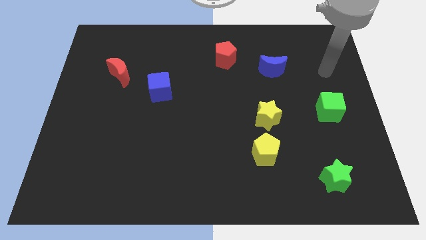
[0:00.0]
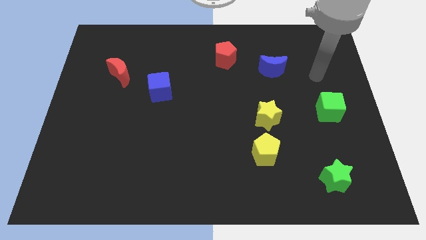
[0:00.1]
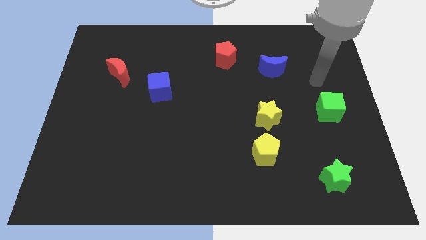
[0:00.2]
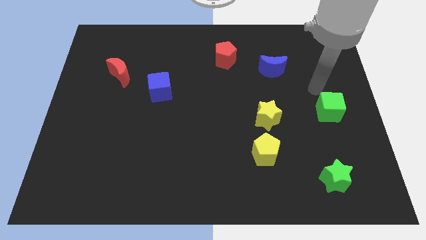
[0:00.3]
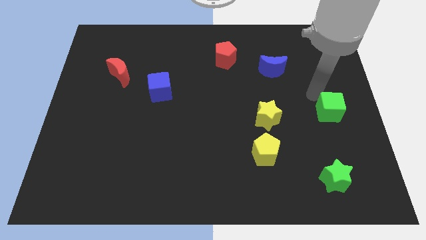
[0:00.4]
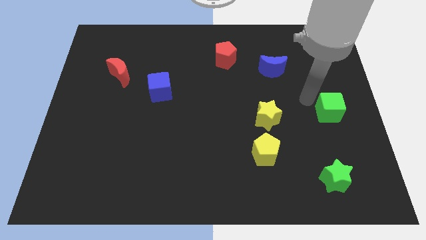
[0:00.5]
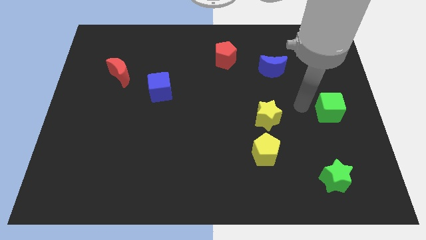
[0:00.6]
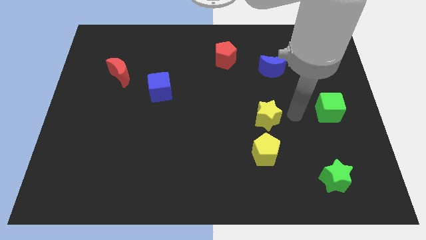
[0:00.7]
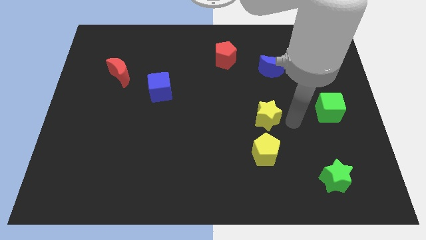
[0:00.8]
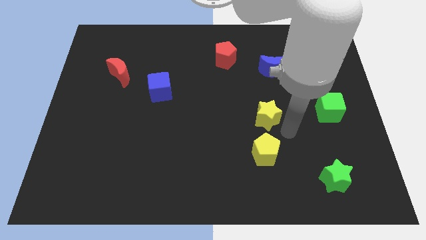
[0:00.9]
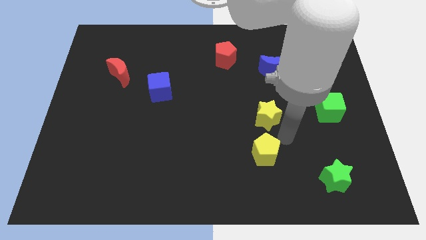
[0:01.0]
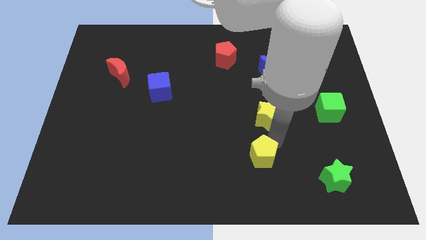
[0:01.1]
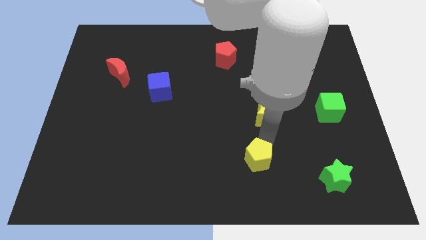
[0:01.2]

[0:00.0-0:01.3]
pull the yellow star apart from the yellow pentagon

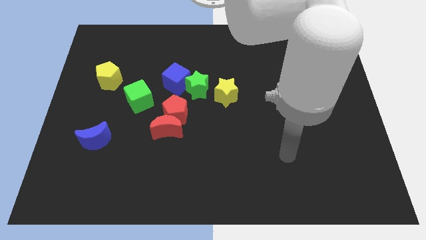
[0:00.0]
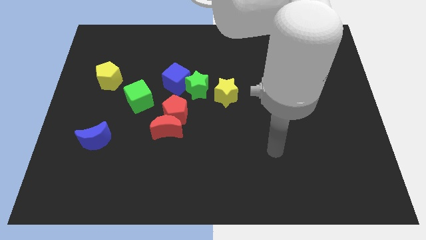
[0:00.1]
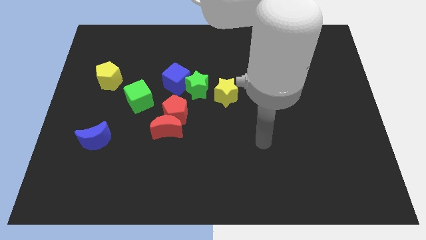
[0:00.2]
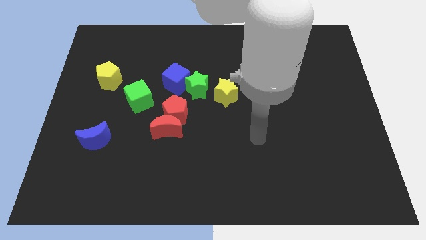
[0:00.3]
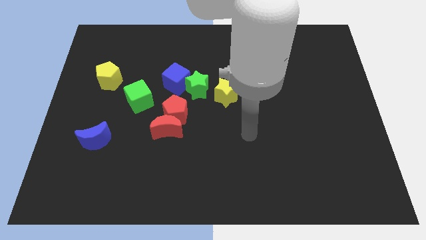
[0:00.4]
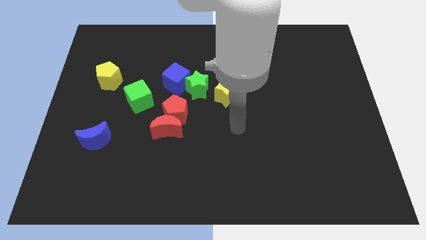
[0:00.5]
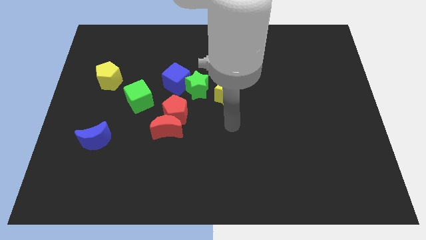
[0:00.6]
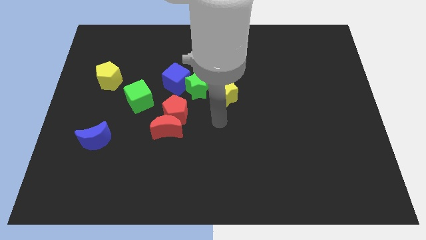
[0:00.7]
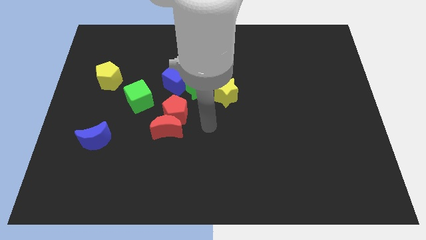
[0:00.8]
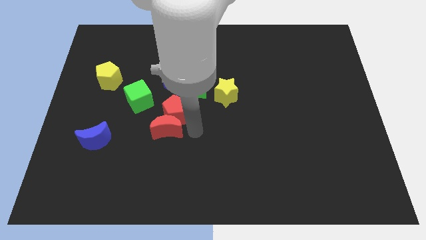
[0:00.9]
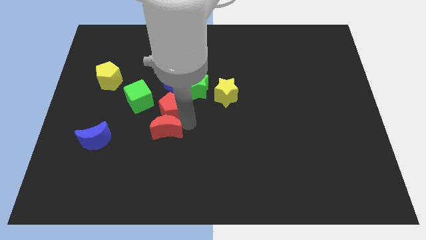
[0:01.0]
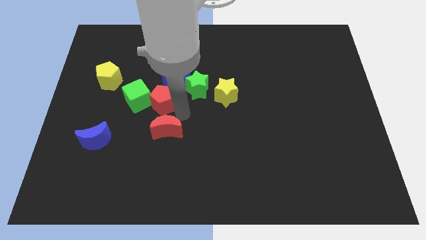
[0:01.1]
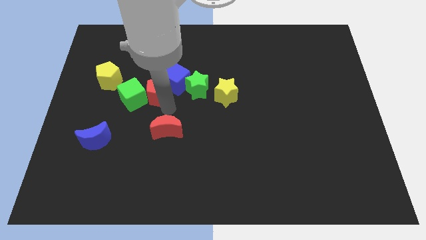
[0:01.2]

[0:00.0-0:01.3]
move the red moon away from the red pentagon

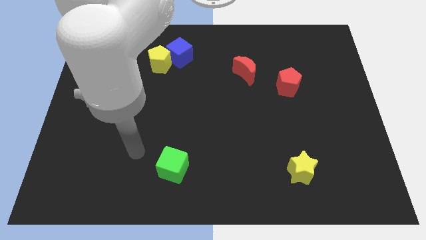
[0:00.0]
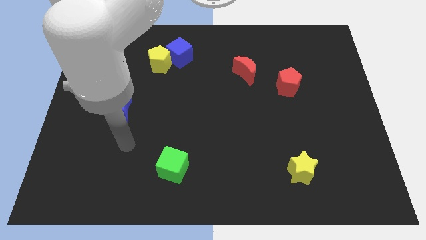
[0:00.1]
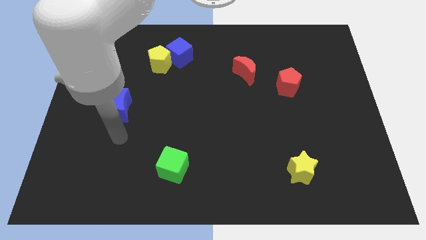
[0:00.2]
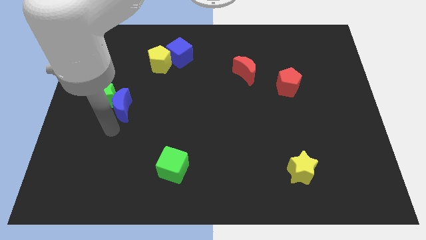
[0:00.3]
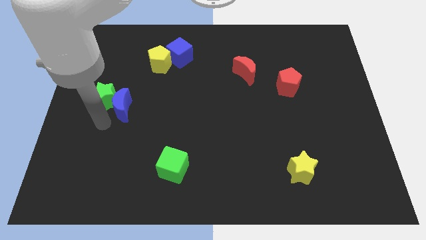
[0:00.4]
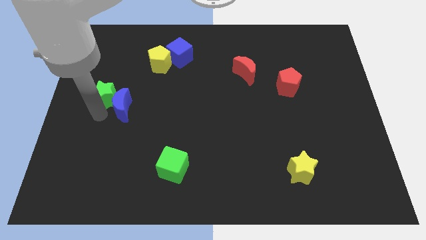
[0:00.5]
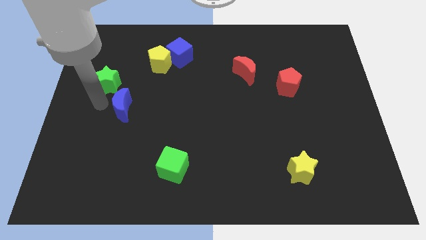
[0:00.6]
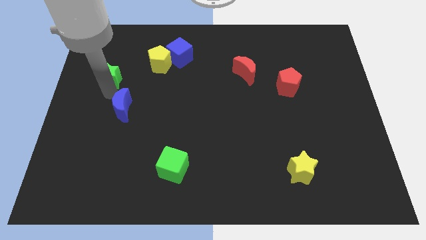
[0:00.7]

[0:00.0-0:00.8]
separate the blue moon from the green star

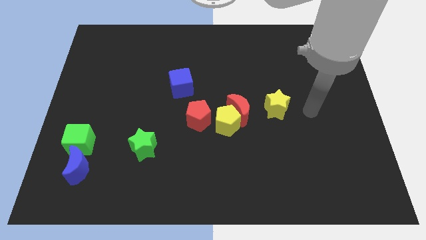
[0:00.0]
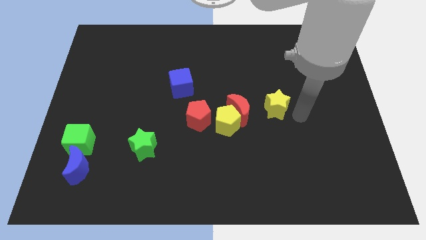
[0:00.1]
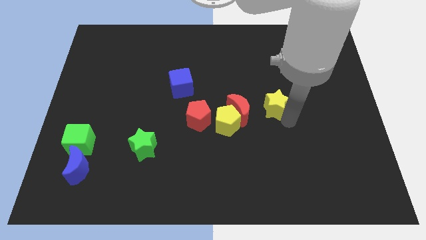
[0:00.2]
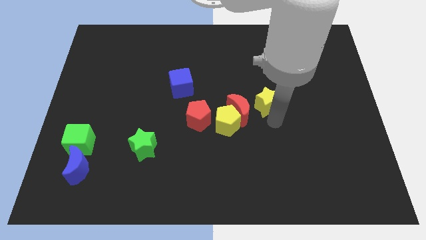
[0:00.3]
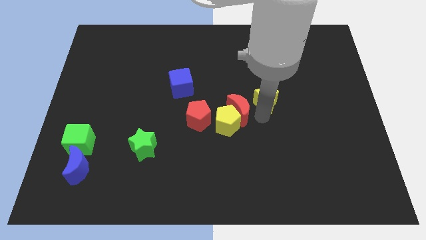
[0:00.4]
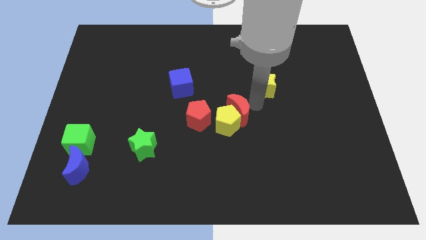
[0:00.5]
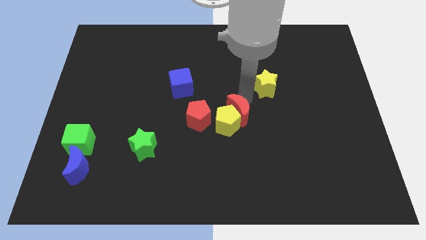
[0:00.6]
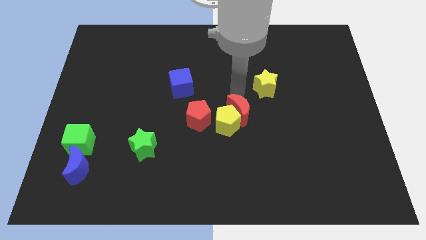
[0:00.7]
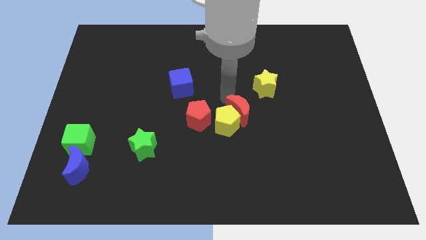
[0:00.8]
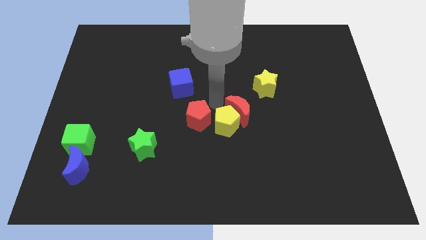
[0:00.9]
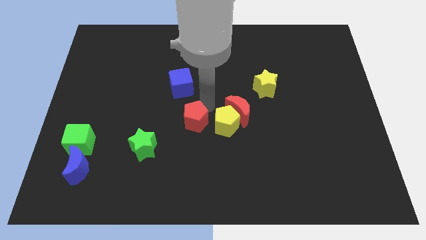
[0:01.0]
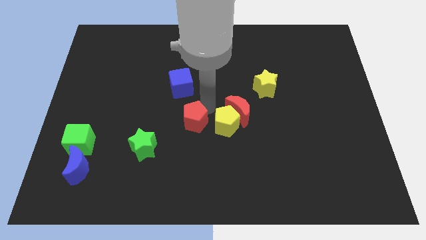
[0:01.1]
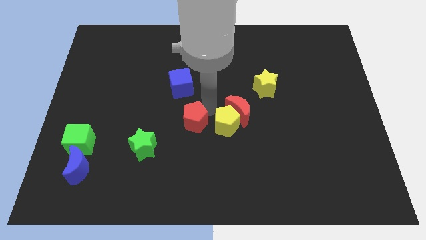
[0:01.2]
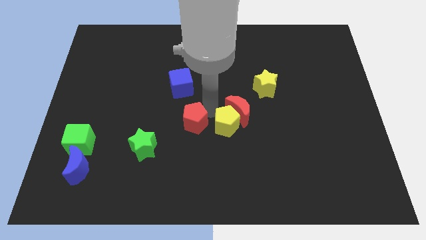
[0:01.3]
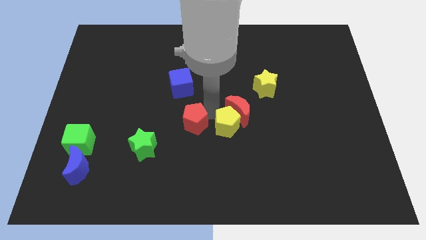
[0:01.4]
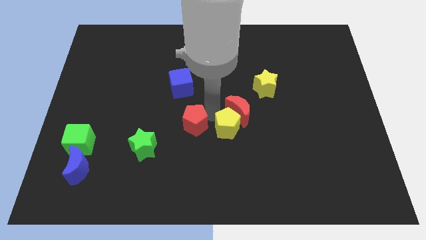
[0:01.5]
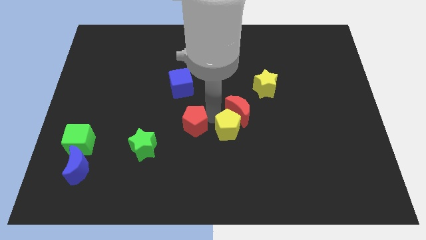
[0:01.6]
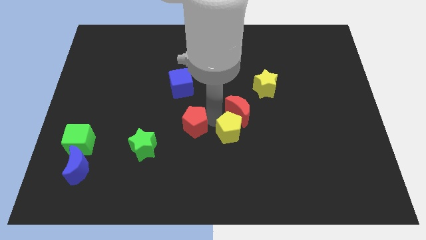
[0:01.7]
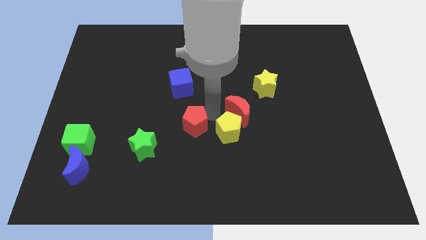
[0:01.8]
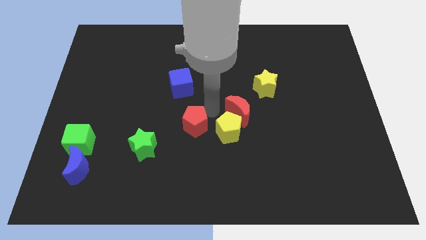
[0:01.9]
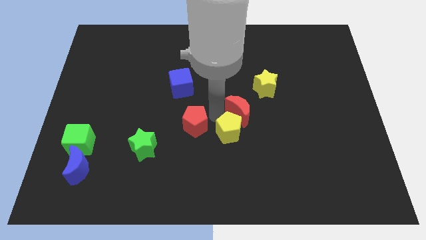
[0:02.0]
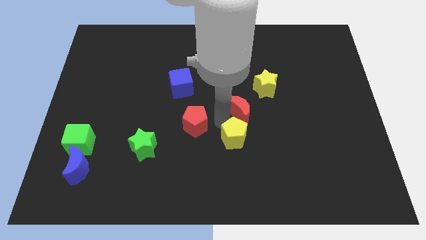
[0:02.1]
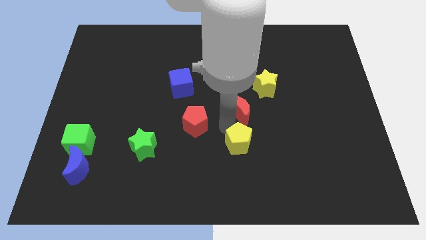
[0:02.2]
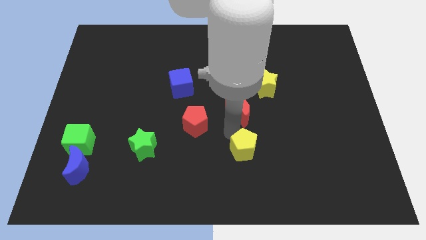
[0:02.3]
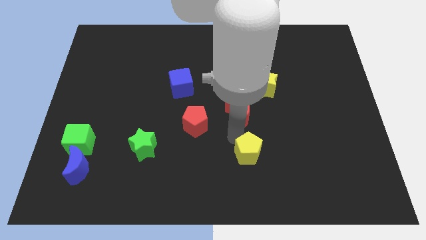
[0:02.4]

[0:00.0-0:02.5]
separate the yellow pentagon from the red moon and red pentagon

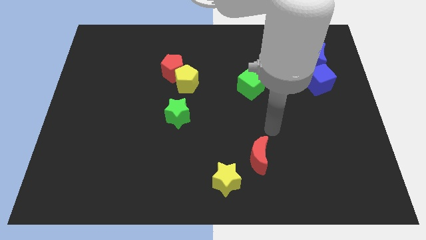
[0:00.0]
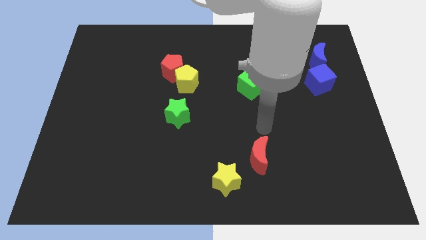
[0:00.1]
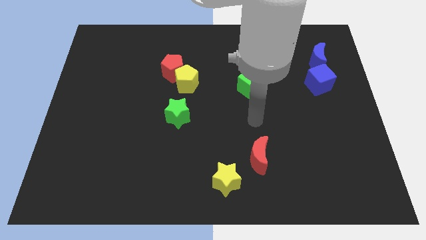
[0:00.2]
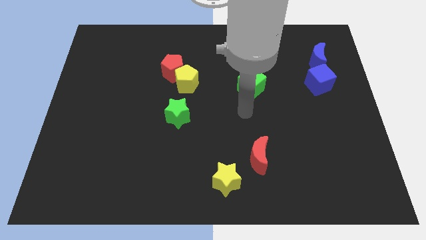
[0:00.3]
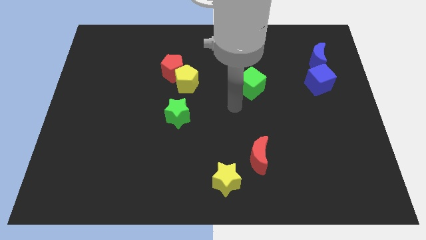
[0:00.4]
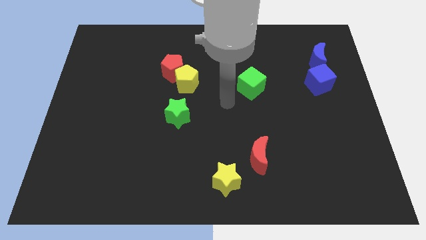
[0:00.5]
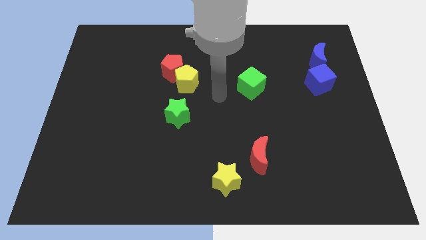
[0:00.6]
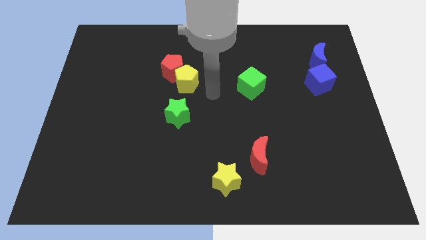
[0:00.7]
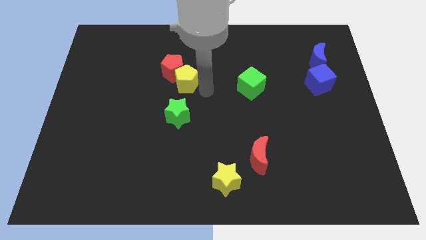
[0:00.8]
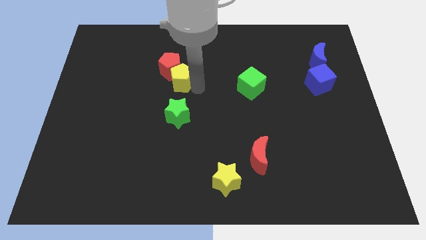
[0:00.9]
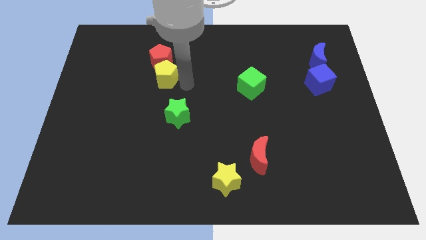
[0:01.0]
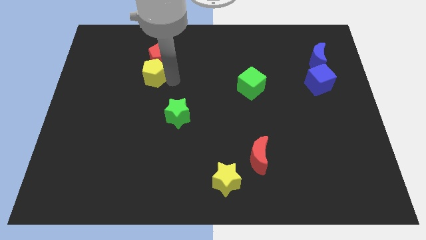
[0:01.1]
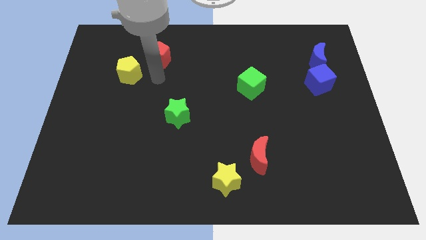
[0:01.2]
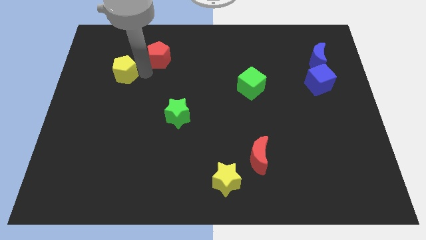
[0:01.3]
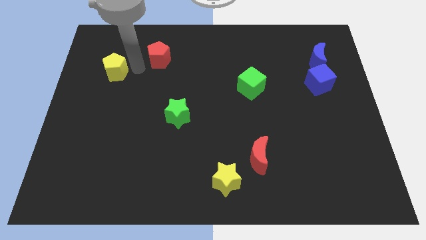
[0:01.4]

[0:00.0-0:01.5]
move the red pentagon away from the yellow pentagon

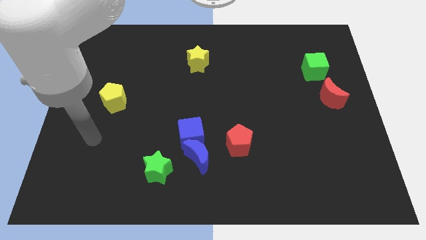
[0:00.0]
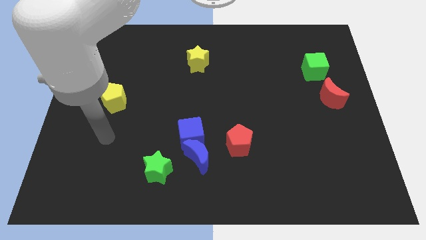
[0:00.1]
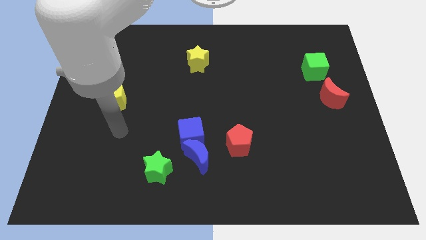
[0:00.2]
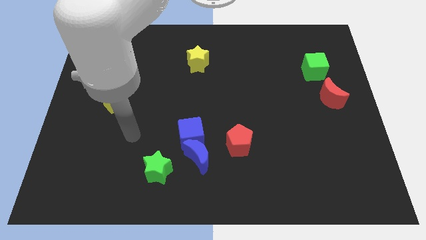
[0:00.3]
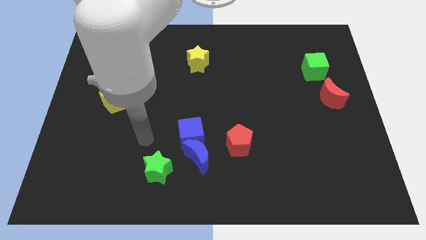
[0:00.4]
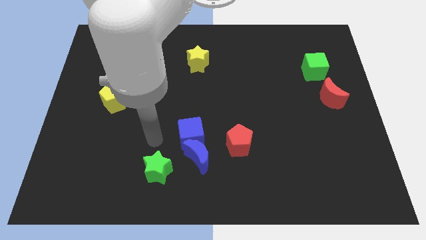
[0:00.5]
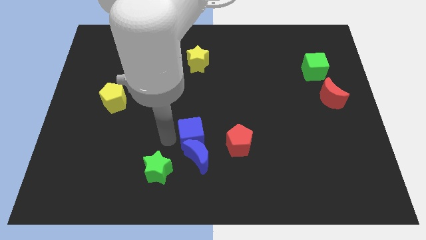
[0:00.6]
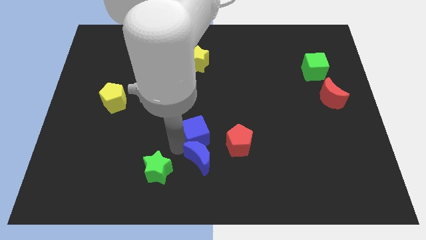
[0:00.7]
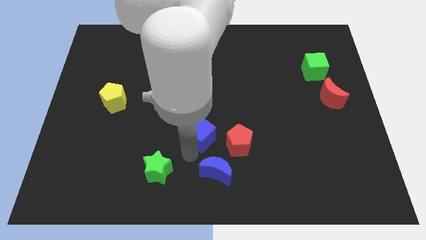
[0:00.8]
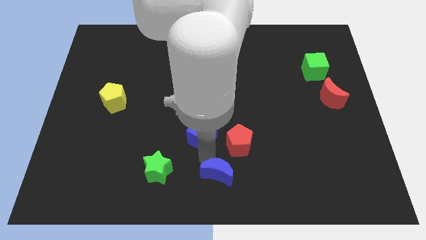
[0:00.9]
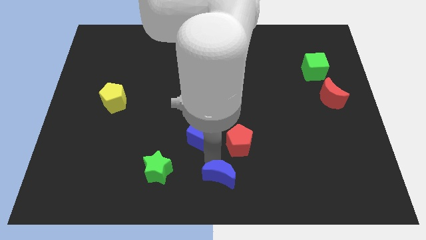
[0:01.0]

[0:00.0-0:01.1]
separate the blue cube from the blue moon

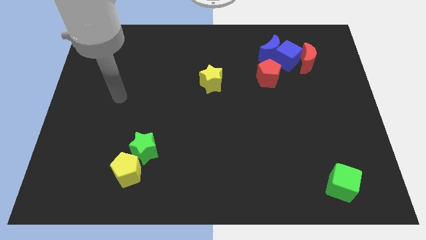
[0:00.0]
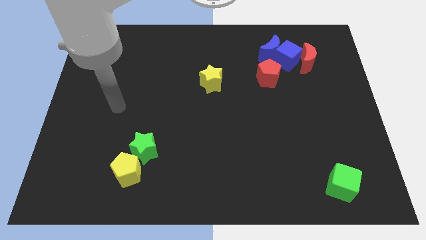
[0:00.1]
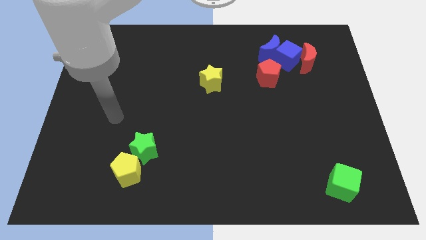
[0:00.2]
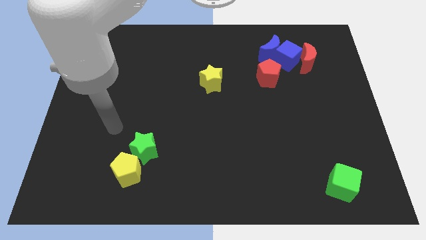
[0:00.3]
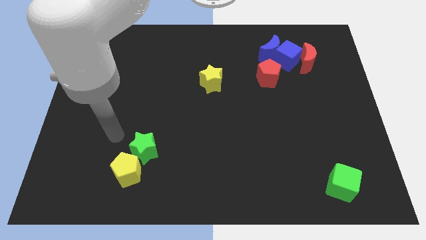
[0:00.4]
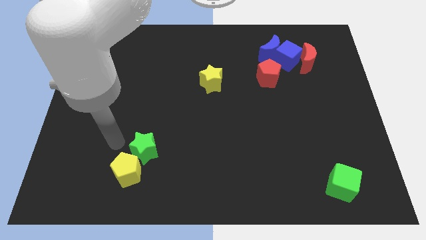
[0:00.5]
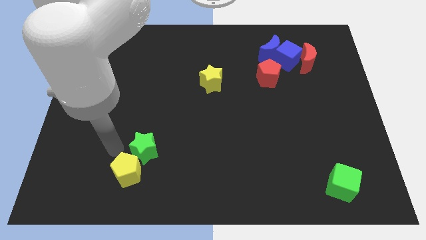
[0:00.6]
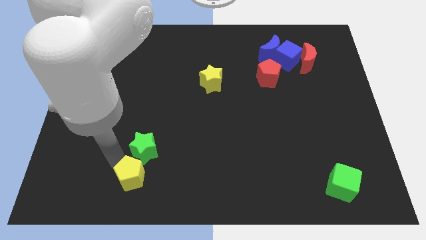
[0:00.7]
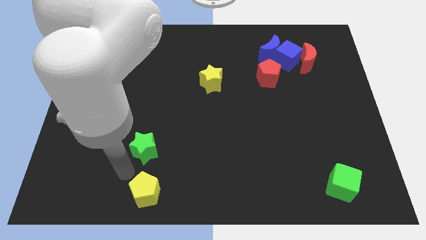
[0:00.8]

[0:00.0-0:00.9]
separate the green star from the yellow pentagon
